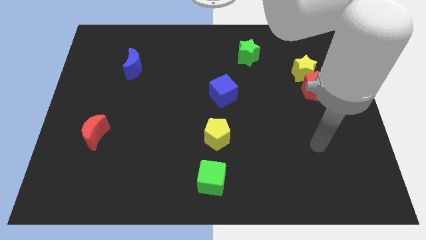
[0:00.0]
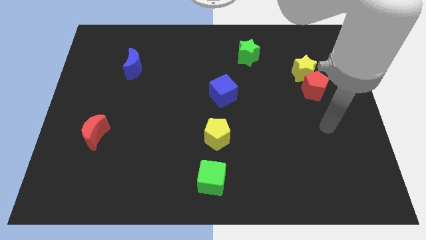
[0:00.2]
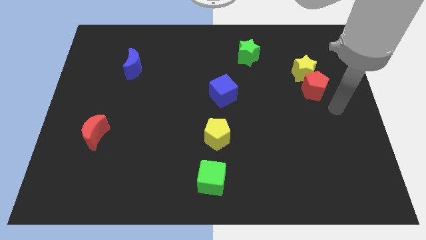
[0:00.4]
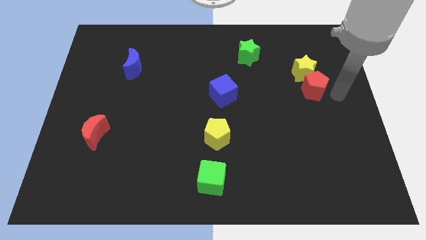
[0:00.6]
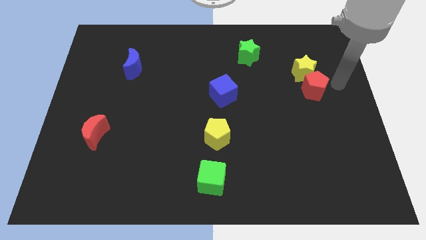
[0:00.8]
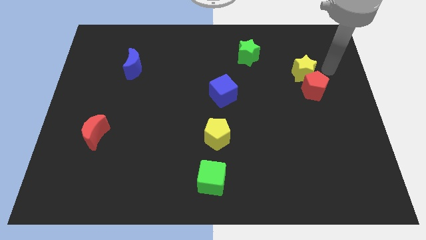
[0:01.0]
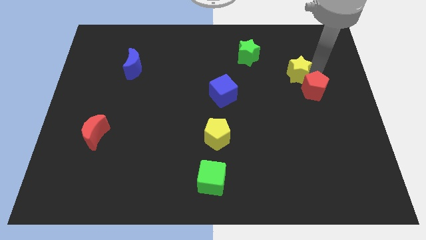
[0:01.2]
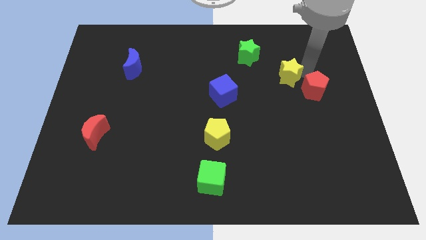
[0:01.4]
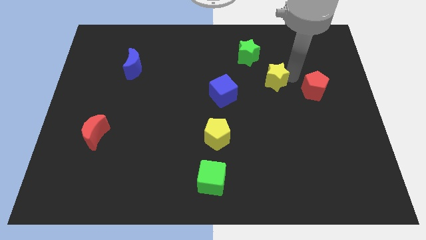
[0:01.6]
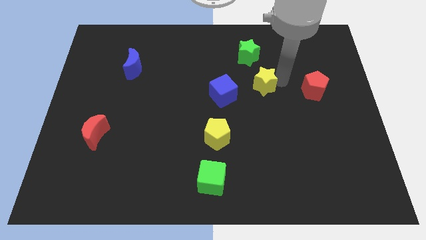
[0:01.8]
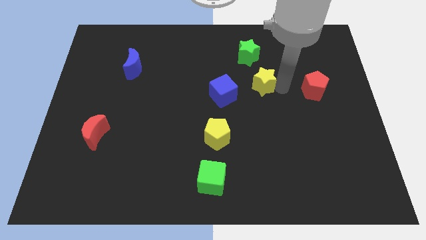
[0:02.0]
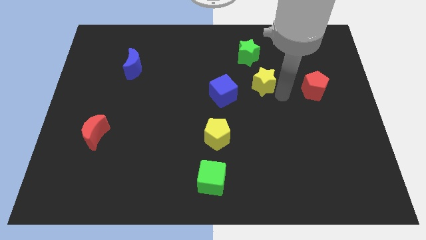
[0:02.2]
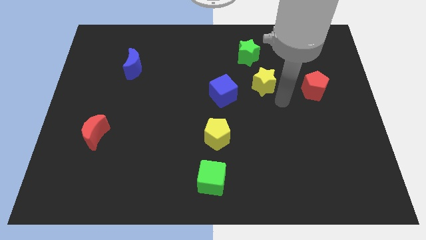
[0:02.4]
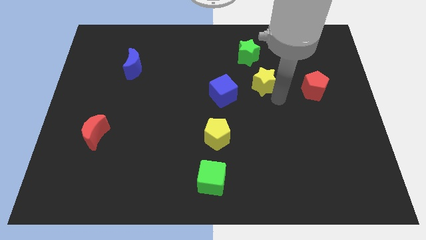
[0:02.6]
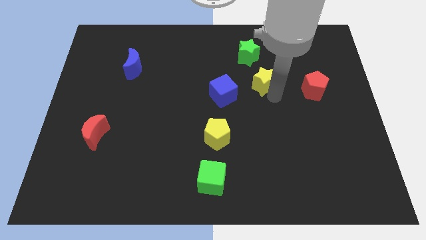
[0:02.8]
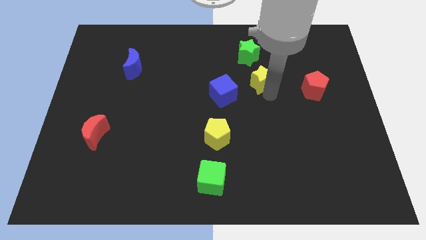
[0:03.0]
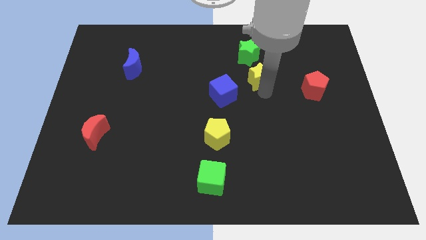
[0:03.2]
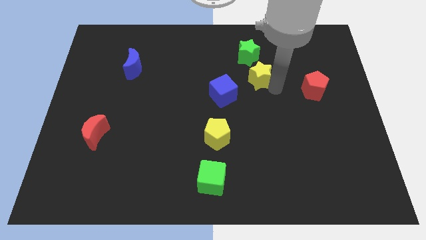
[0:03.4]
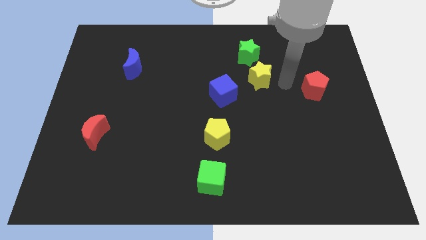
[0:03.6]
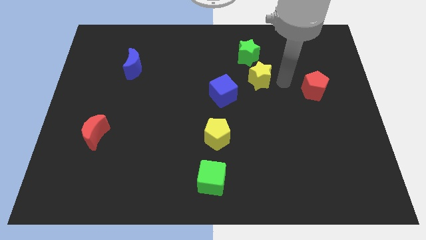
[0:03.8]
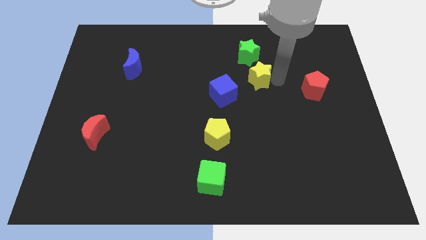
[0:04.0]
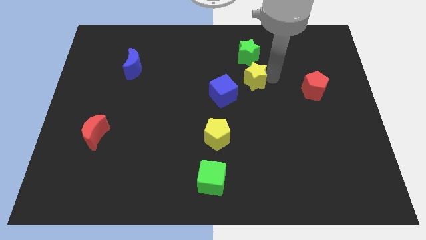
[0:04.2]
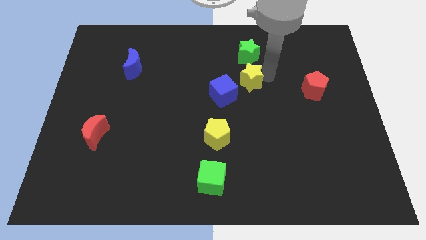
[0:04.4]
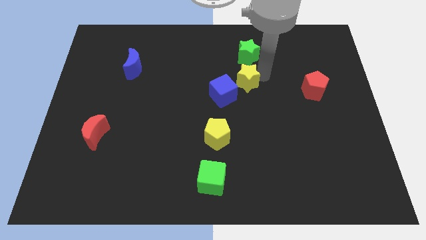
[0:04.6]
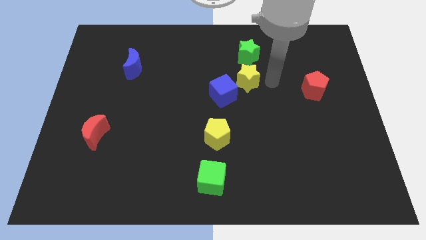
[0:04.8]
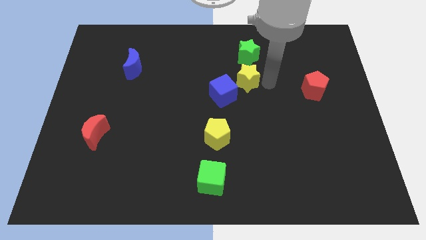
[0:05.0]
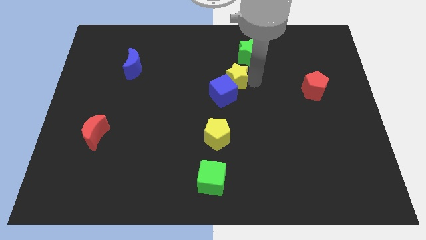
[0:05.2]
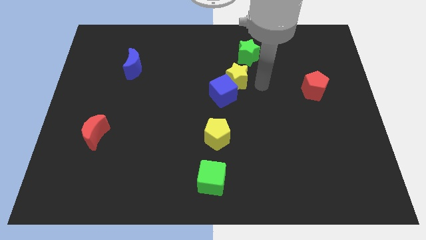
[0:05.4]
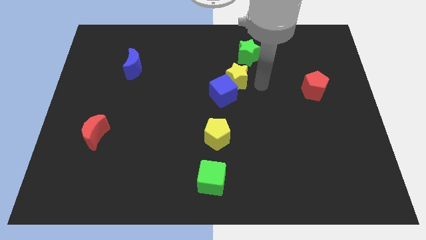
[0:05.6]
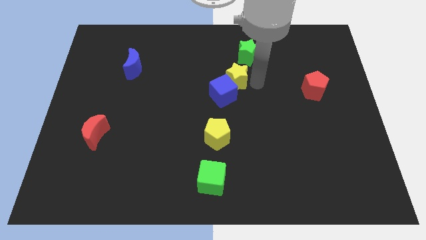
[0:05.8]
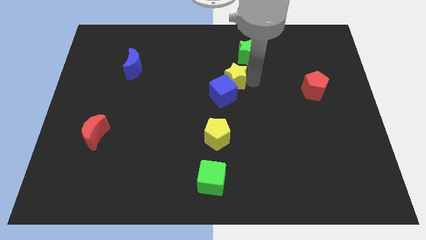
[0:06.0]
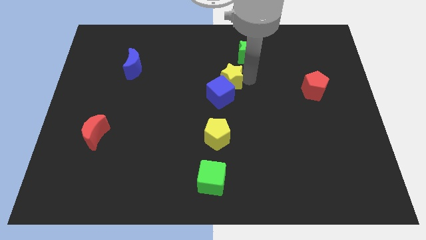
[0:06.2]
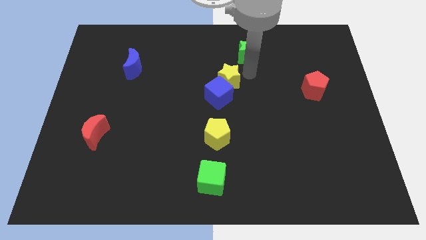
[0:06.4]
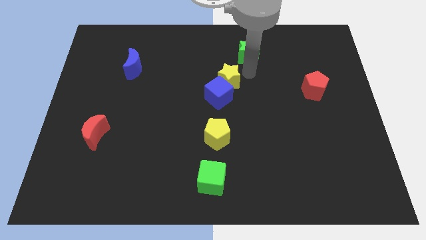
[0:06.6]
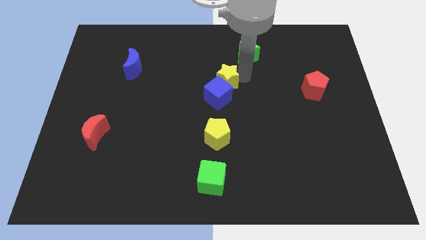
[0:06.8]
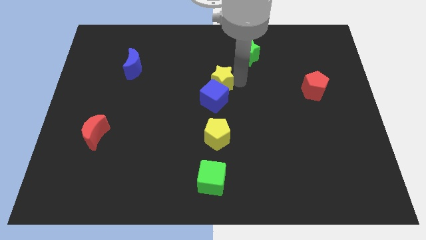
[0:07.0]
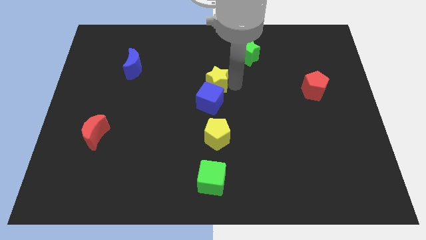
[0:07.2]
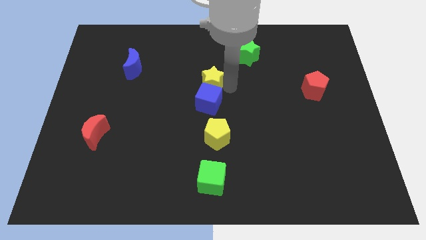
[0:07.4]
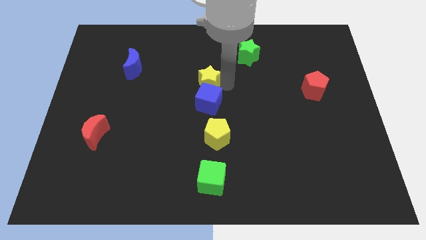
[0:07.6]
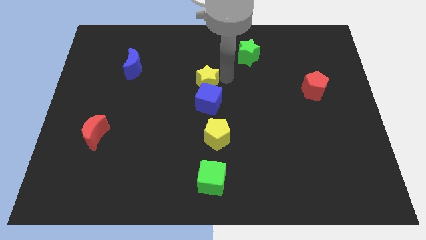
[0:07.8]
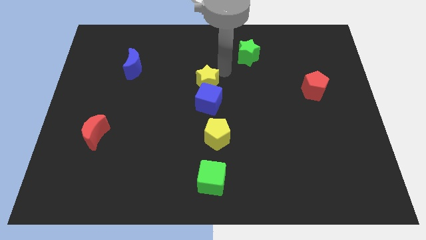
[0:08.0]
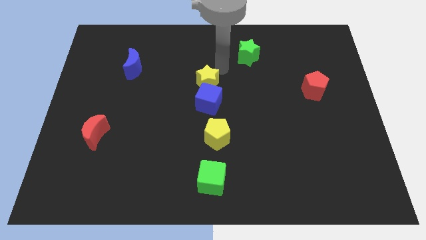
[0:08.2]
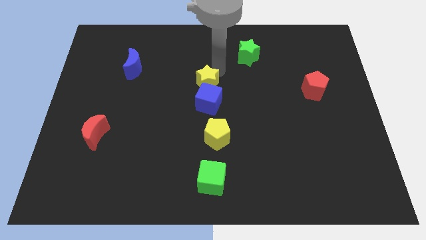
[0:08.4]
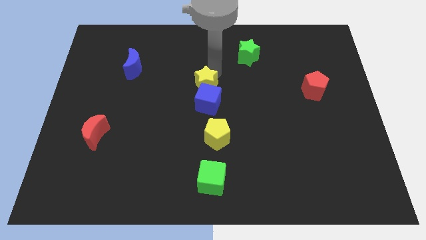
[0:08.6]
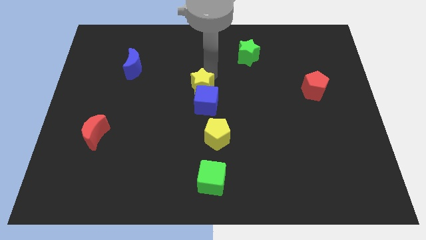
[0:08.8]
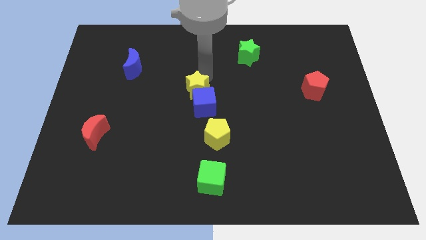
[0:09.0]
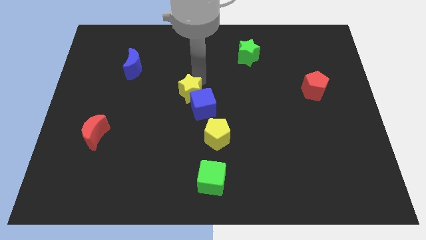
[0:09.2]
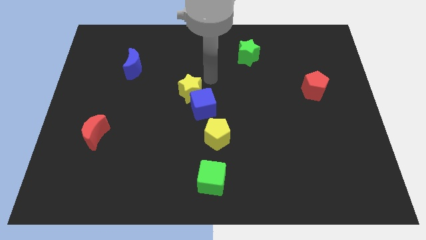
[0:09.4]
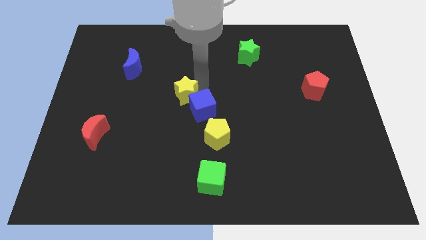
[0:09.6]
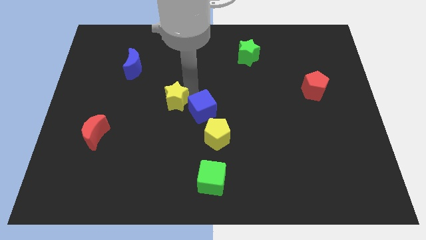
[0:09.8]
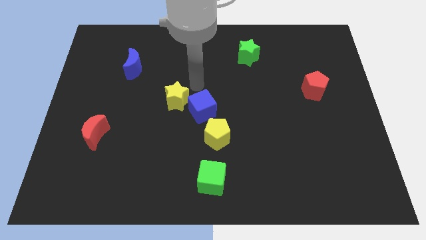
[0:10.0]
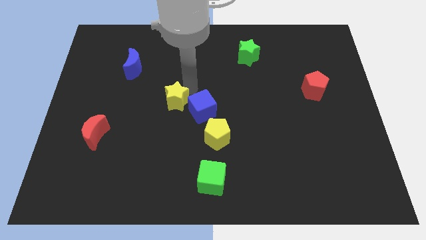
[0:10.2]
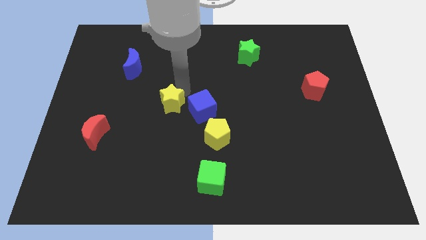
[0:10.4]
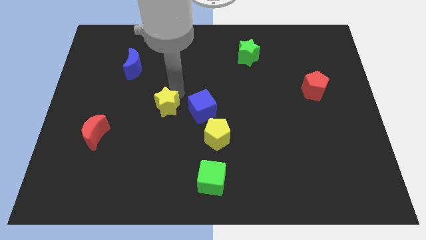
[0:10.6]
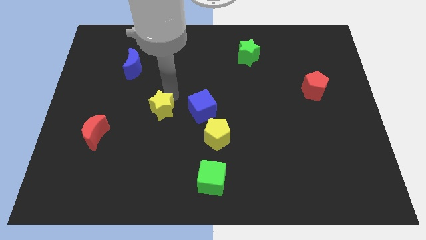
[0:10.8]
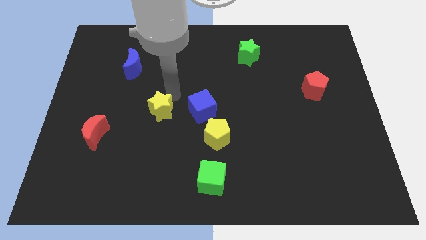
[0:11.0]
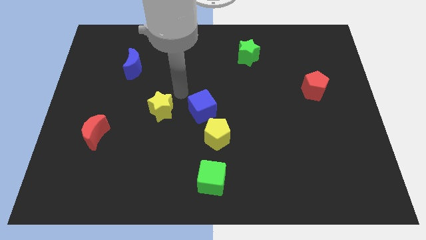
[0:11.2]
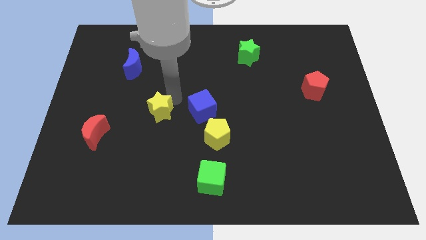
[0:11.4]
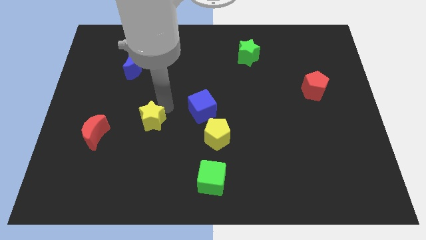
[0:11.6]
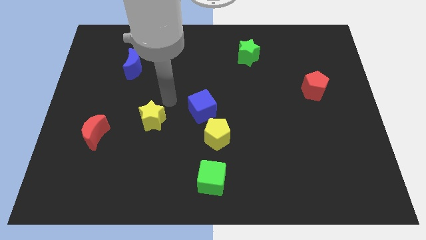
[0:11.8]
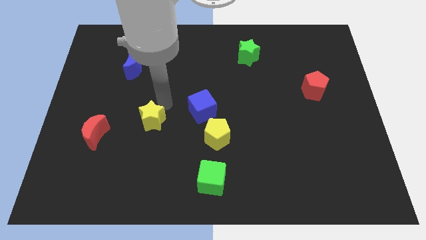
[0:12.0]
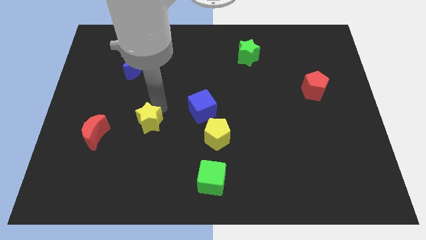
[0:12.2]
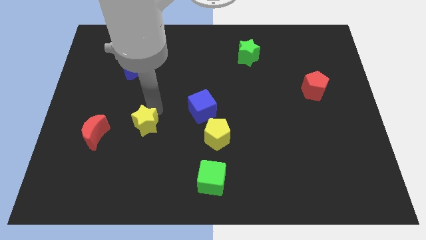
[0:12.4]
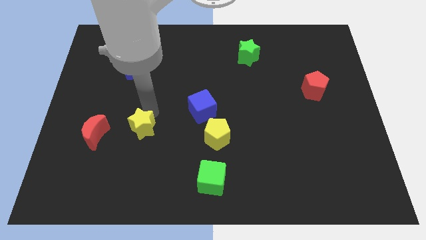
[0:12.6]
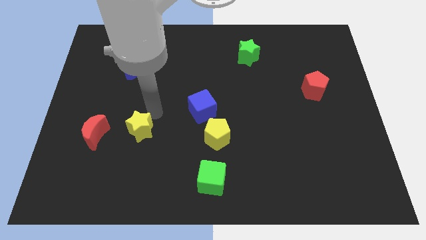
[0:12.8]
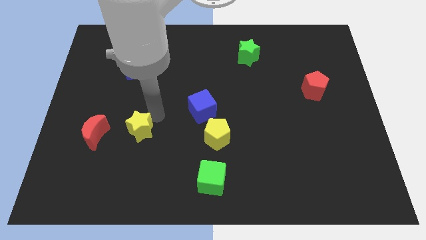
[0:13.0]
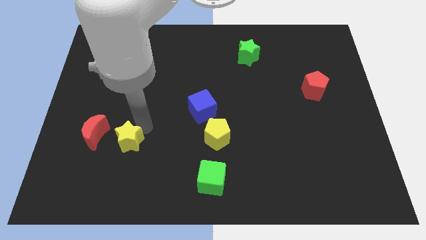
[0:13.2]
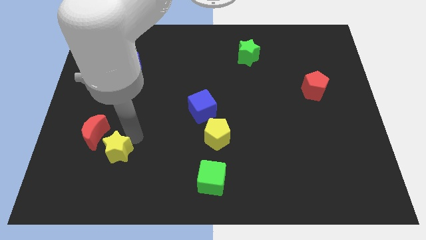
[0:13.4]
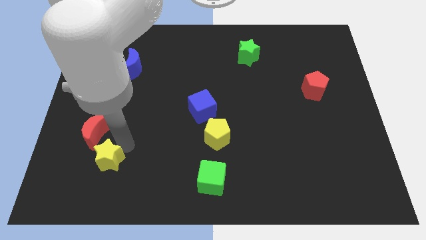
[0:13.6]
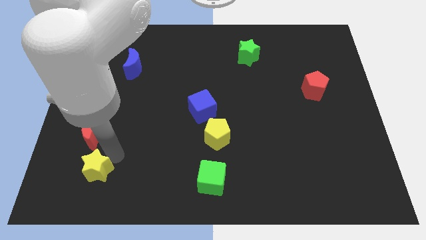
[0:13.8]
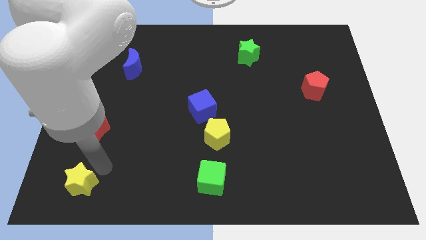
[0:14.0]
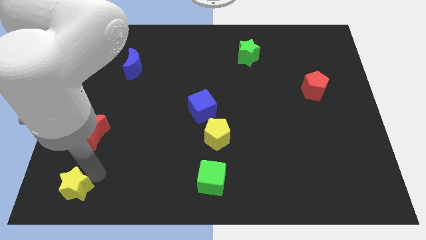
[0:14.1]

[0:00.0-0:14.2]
move the yellow star to the bottom left
